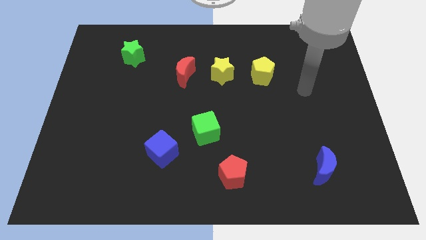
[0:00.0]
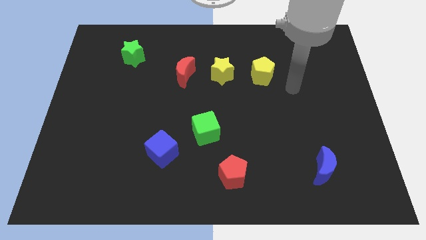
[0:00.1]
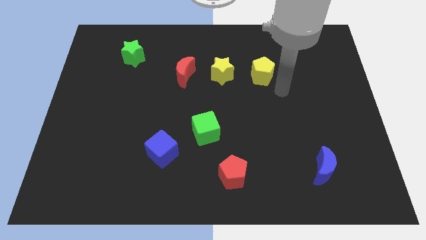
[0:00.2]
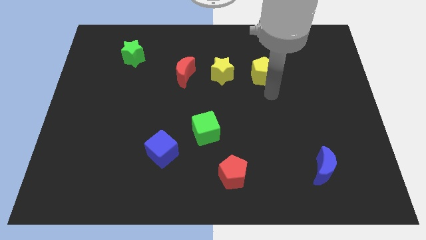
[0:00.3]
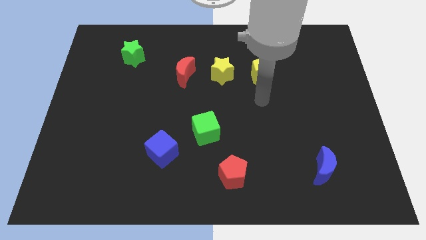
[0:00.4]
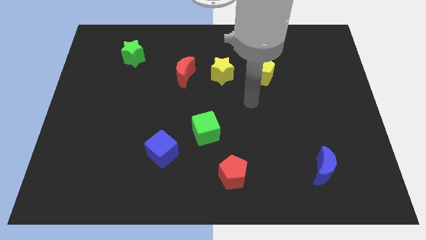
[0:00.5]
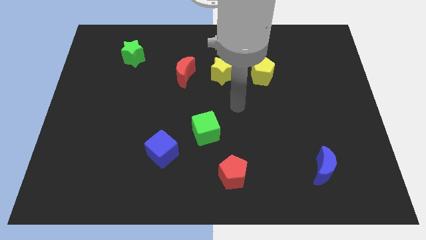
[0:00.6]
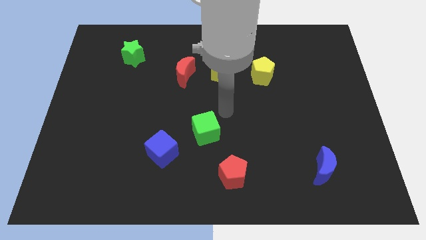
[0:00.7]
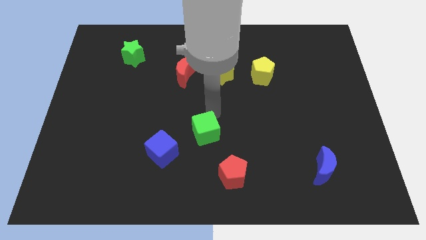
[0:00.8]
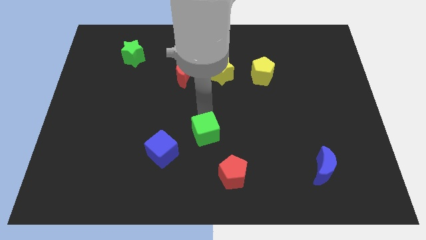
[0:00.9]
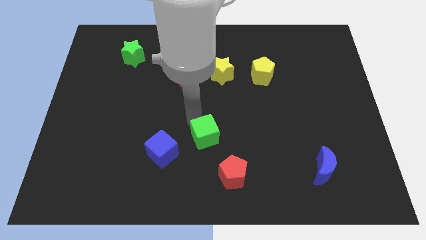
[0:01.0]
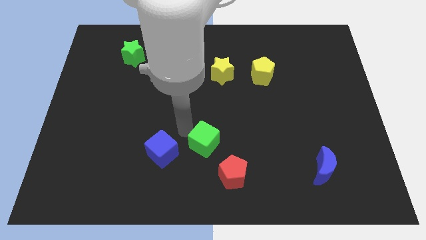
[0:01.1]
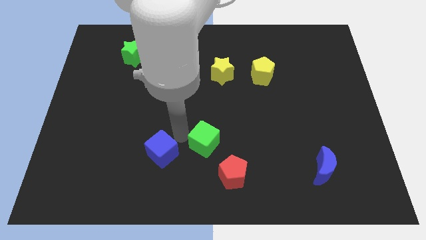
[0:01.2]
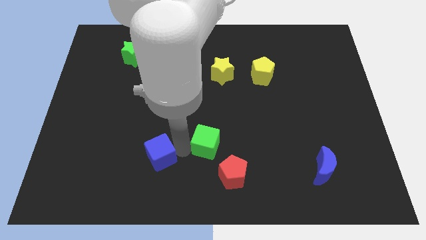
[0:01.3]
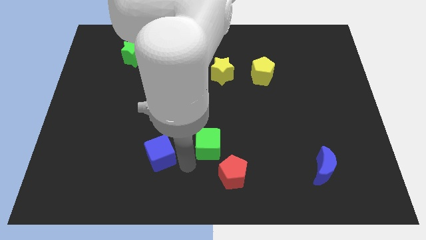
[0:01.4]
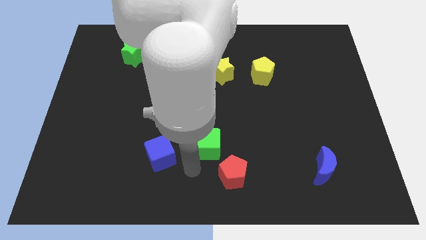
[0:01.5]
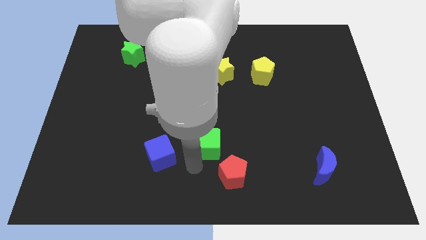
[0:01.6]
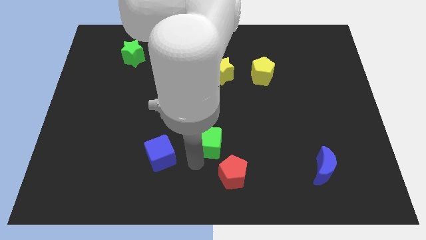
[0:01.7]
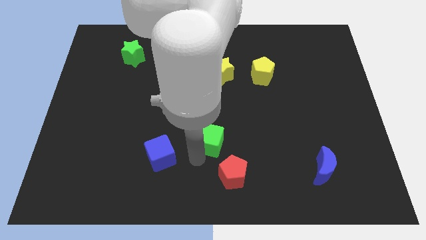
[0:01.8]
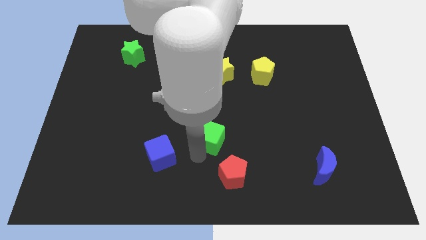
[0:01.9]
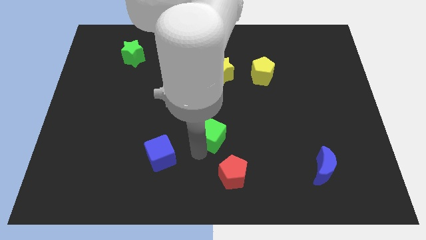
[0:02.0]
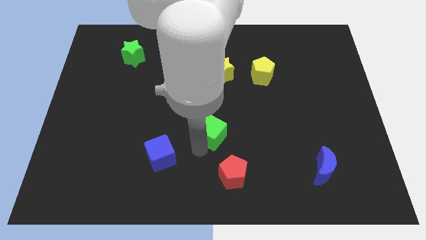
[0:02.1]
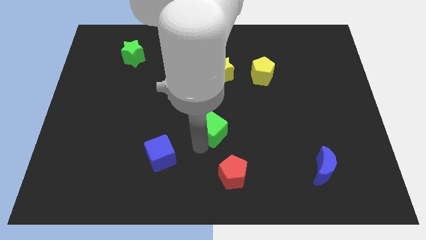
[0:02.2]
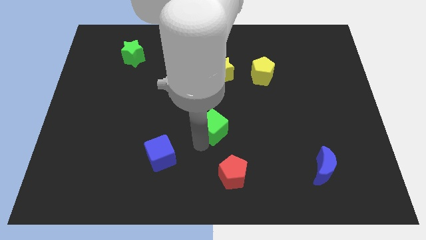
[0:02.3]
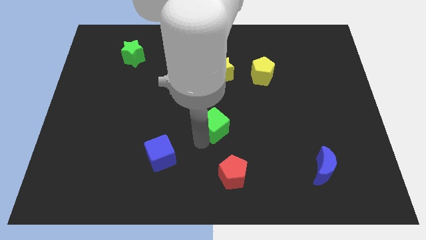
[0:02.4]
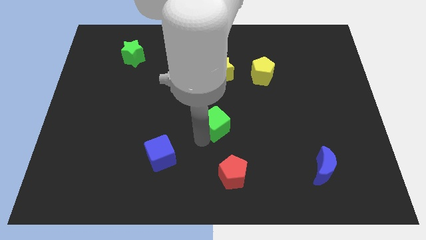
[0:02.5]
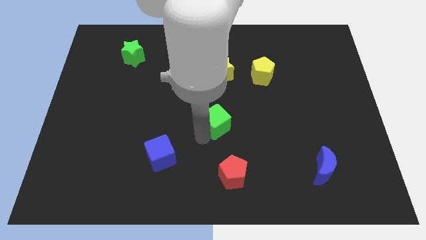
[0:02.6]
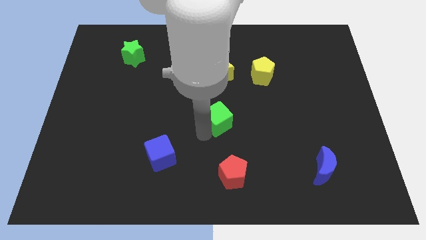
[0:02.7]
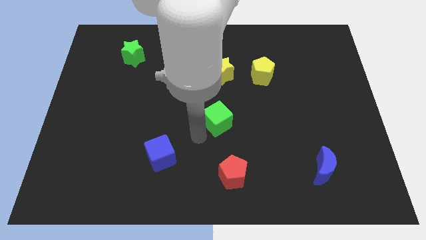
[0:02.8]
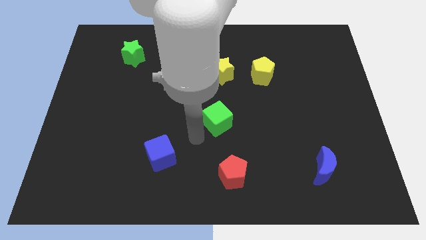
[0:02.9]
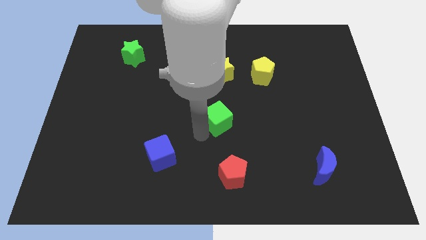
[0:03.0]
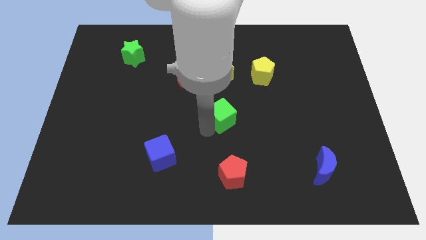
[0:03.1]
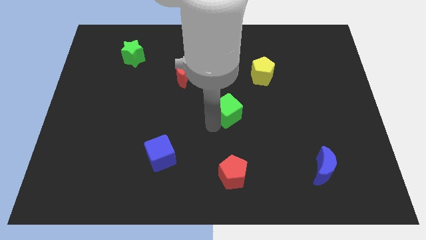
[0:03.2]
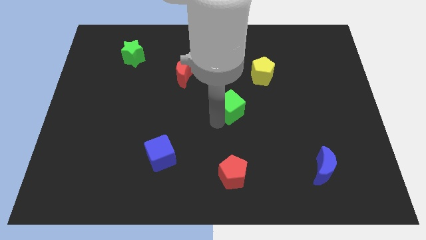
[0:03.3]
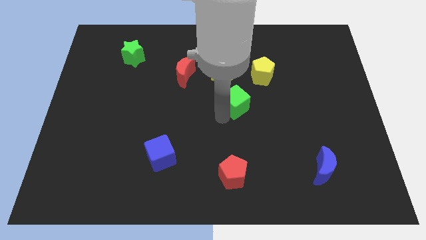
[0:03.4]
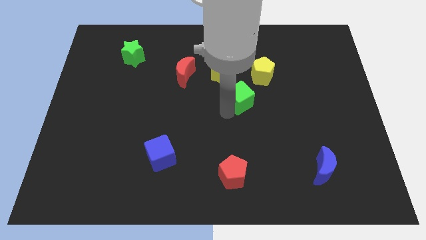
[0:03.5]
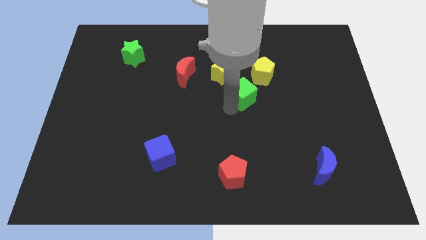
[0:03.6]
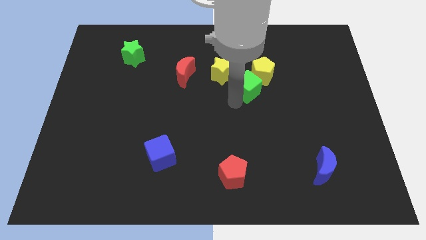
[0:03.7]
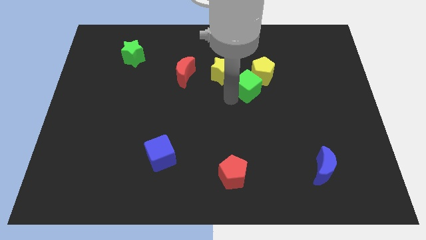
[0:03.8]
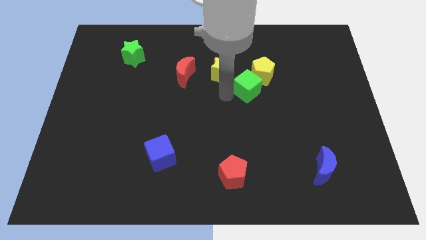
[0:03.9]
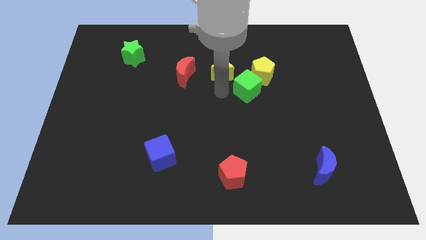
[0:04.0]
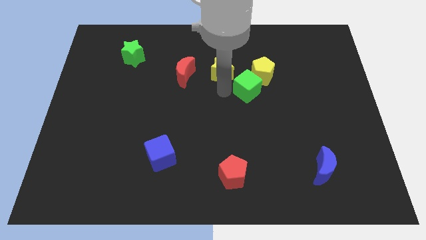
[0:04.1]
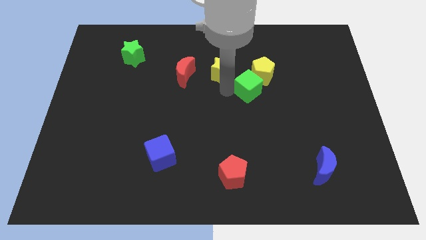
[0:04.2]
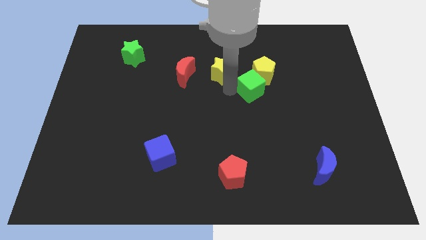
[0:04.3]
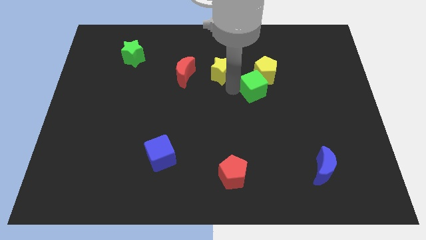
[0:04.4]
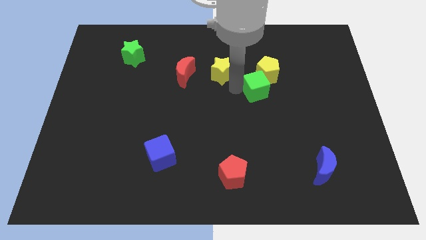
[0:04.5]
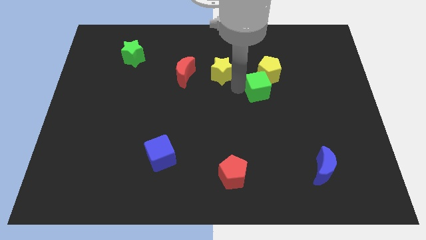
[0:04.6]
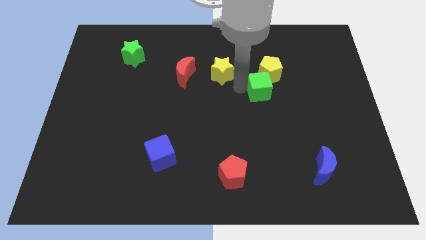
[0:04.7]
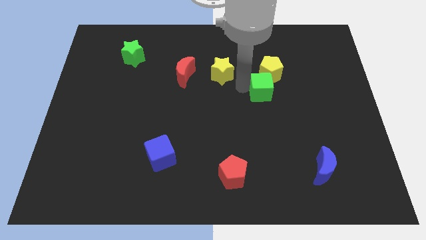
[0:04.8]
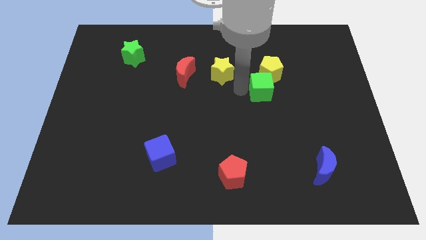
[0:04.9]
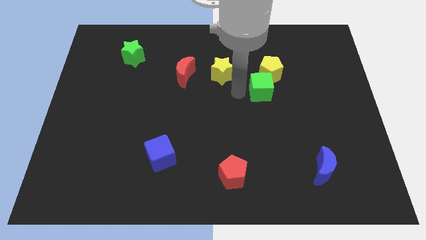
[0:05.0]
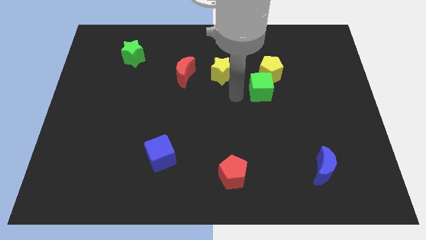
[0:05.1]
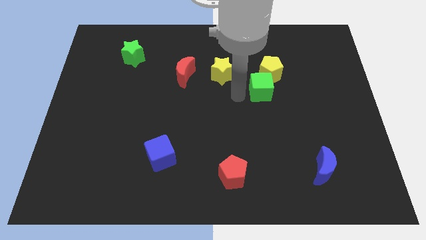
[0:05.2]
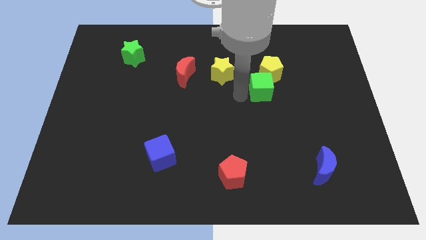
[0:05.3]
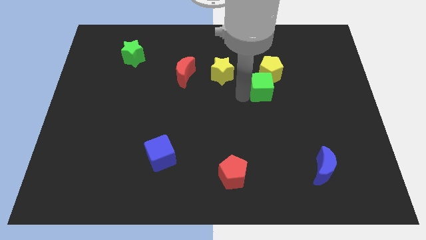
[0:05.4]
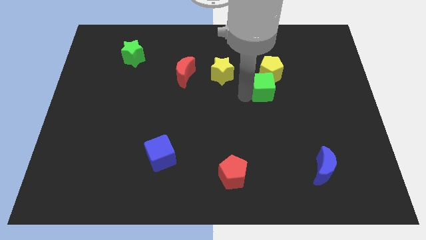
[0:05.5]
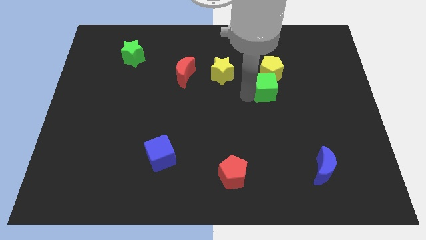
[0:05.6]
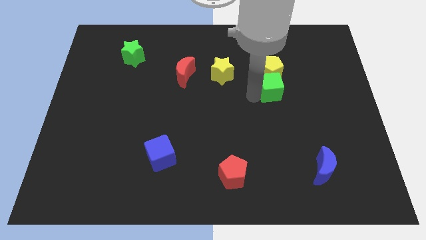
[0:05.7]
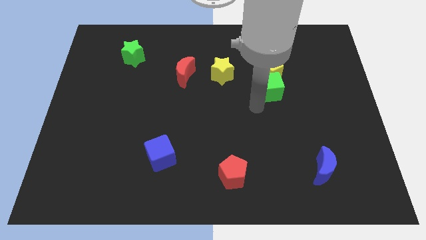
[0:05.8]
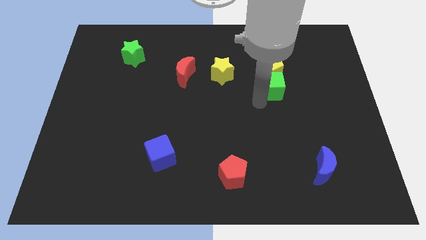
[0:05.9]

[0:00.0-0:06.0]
move the green cube up and to the right

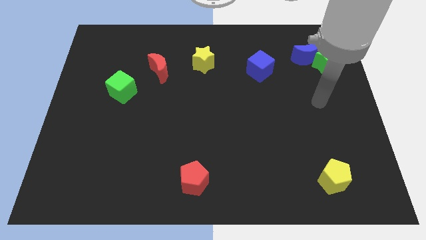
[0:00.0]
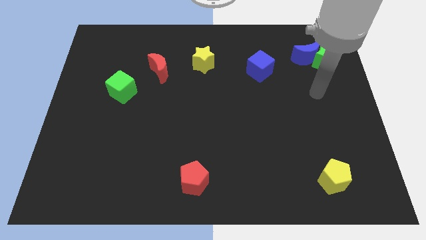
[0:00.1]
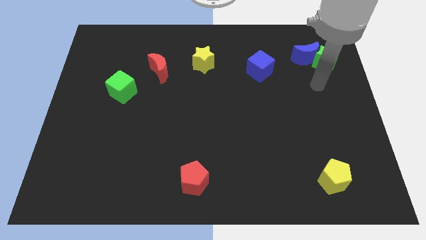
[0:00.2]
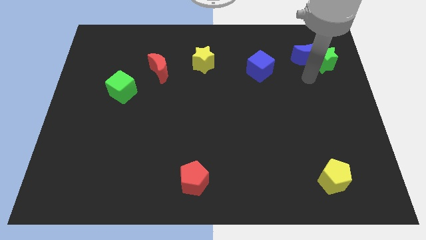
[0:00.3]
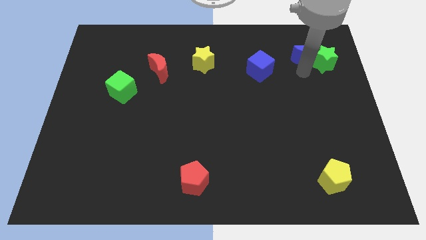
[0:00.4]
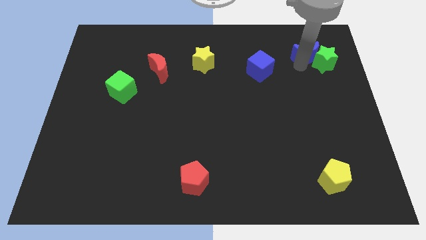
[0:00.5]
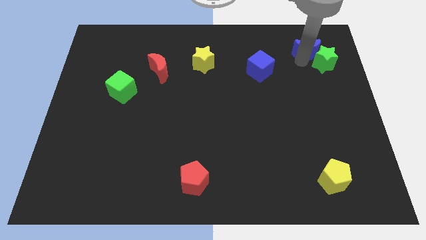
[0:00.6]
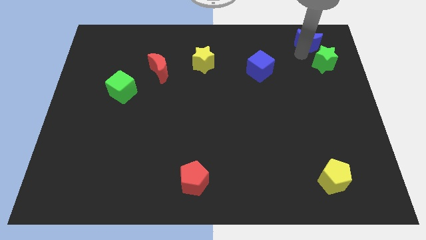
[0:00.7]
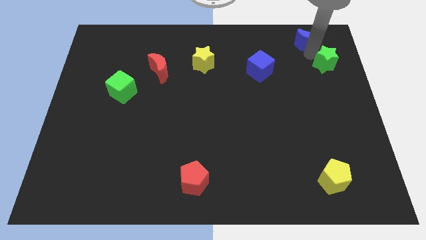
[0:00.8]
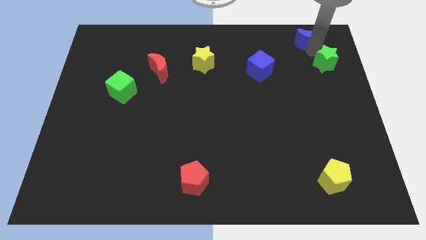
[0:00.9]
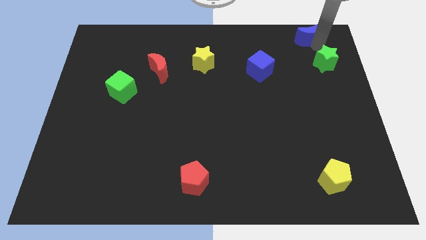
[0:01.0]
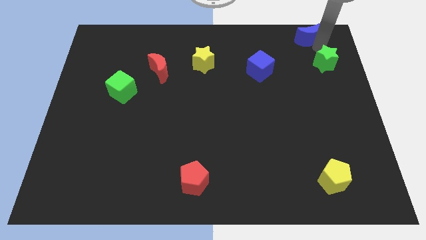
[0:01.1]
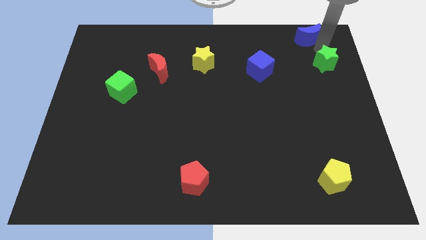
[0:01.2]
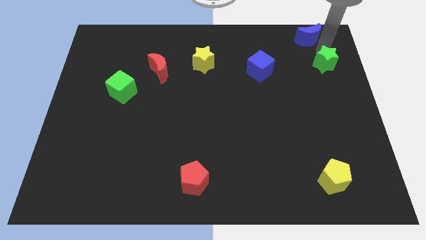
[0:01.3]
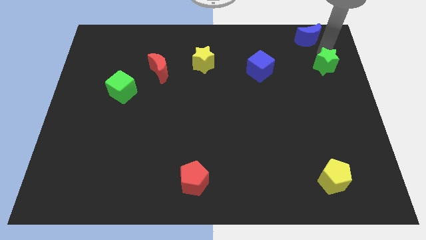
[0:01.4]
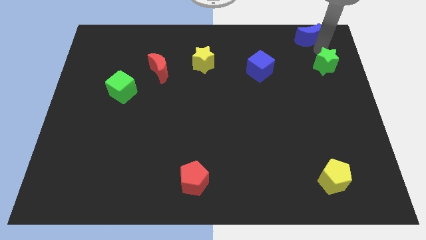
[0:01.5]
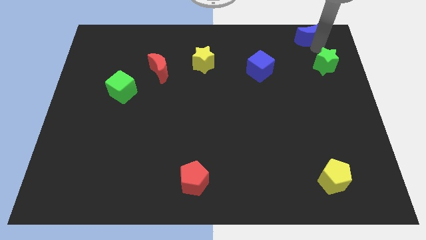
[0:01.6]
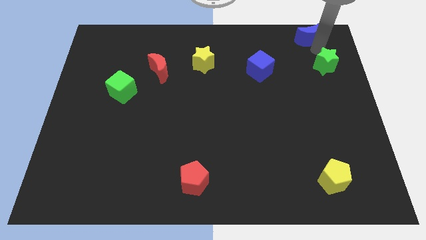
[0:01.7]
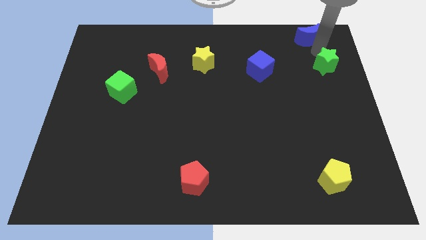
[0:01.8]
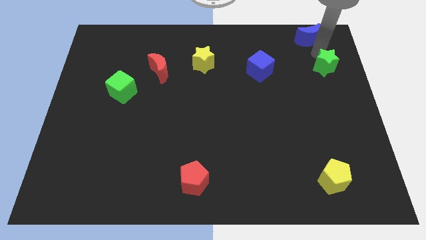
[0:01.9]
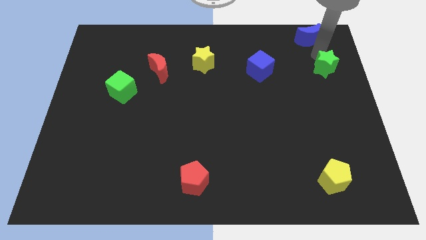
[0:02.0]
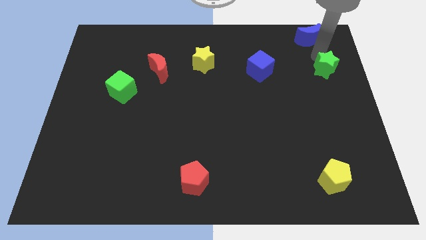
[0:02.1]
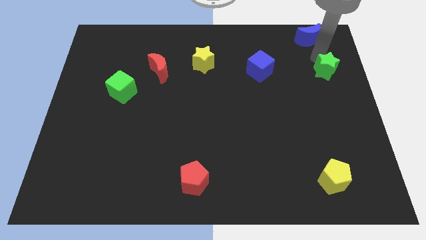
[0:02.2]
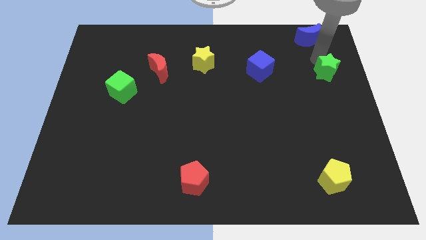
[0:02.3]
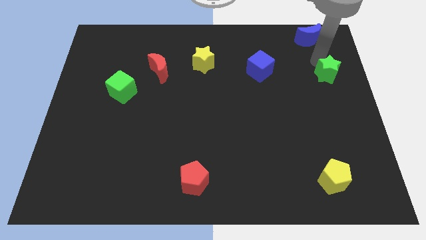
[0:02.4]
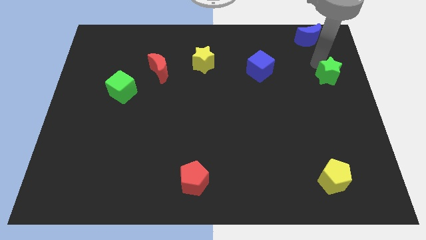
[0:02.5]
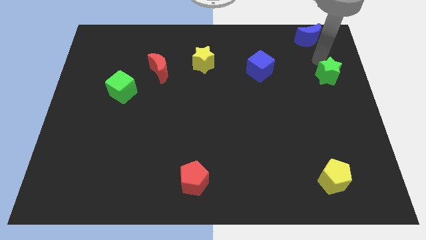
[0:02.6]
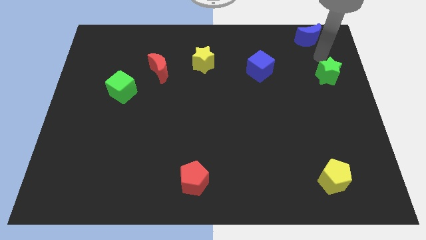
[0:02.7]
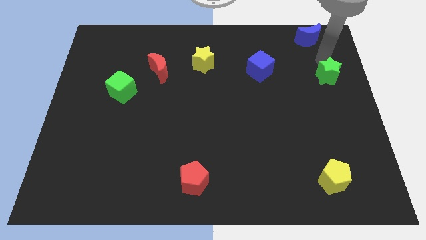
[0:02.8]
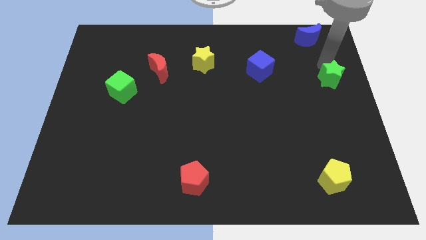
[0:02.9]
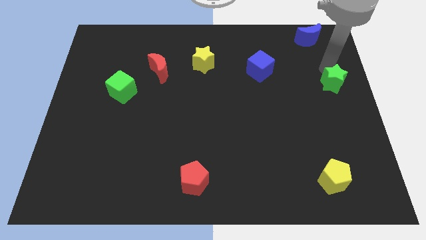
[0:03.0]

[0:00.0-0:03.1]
slide the green star somewhat downwards
